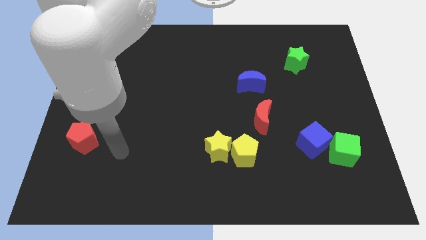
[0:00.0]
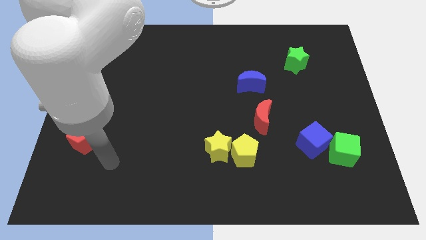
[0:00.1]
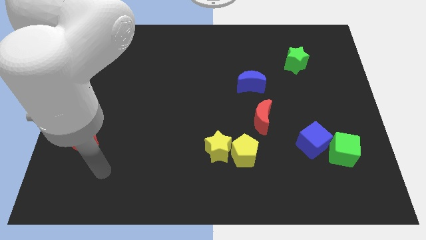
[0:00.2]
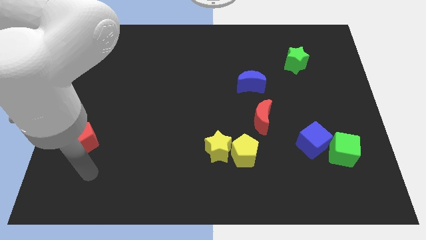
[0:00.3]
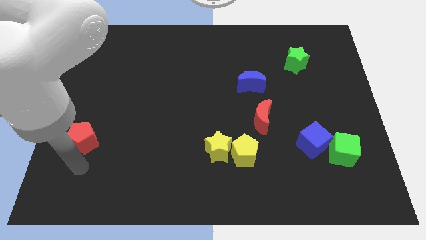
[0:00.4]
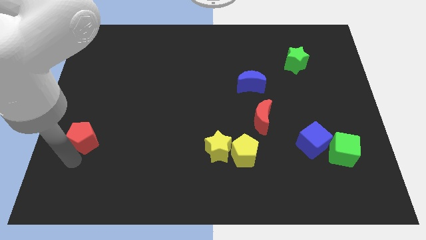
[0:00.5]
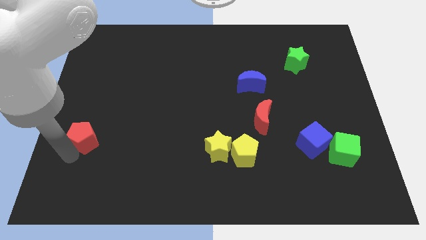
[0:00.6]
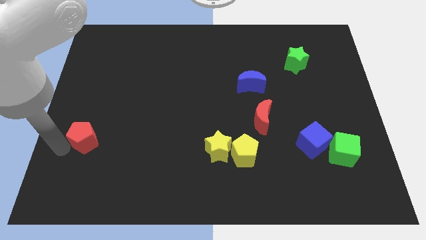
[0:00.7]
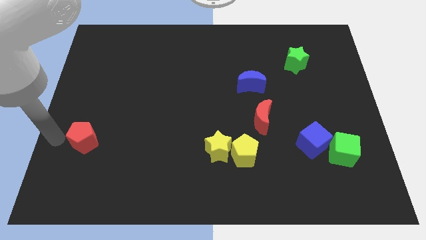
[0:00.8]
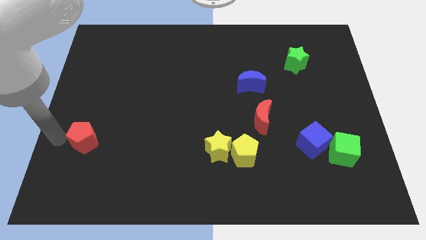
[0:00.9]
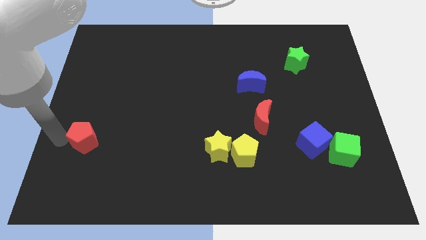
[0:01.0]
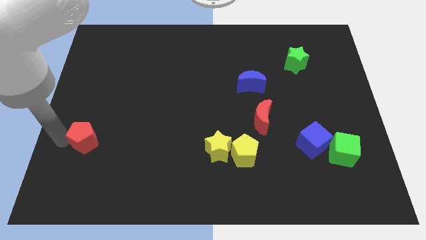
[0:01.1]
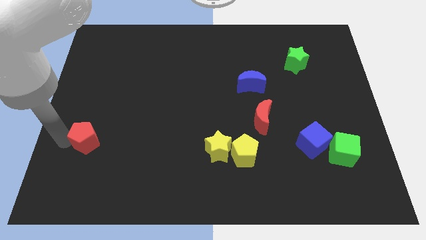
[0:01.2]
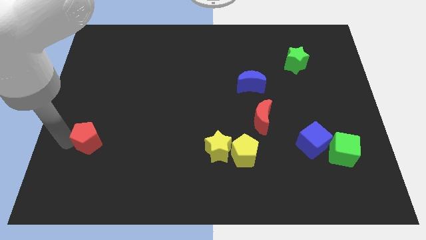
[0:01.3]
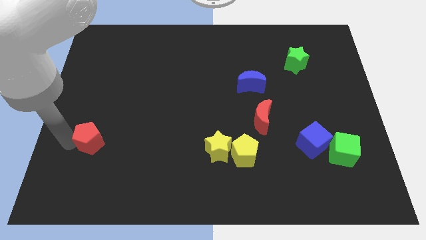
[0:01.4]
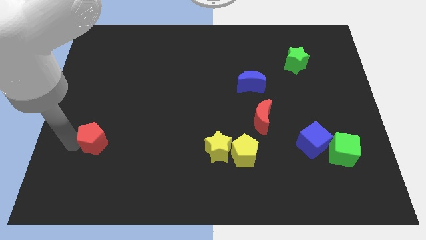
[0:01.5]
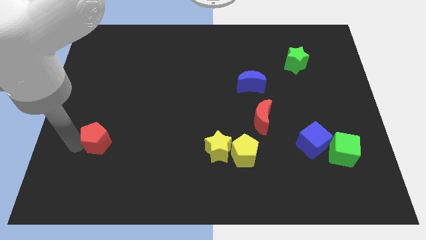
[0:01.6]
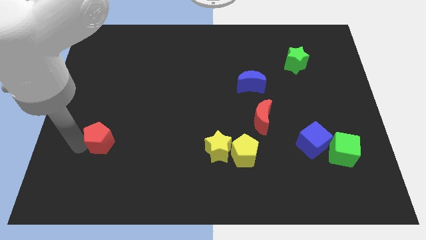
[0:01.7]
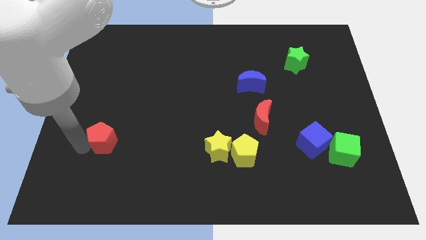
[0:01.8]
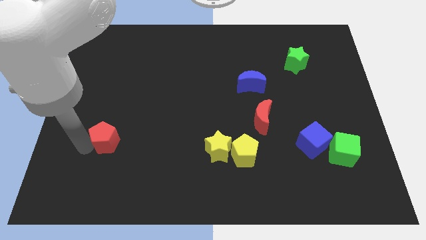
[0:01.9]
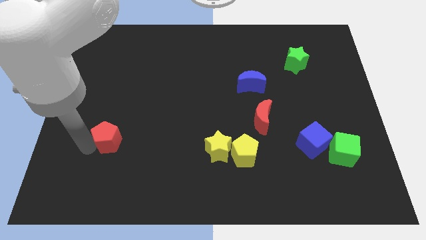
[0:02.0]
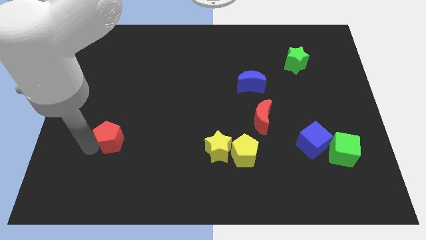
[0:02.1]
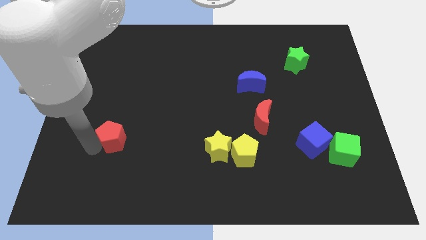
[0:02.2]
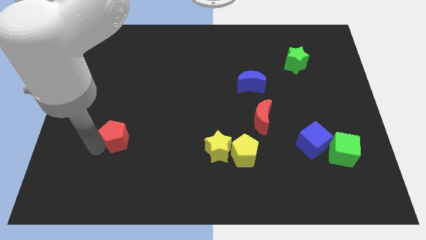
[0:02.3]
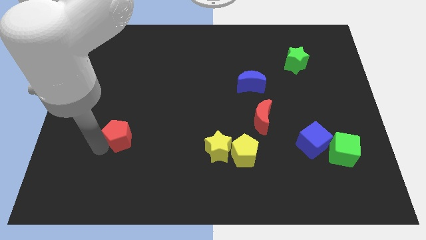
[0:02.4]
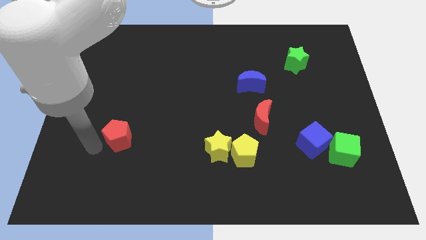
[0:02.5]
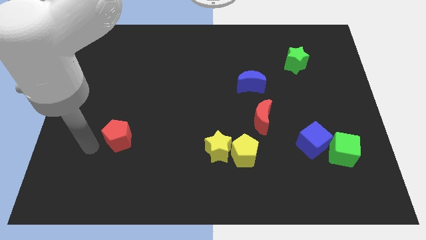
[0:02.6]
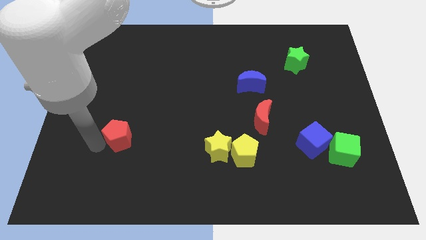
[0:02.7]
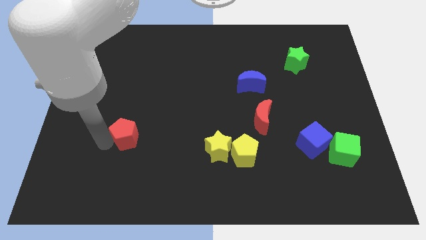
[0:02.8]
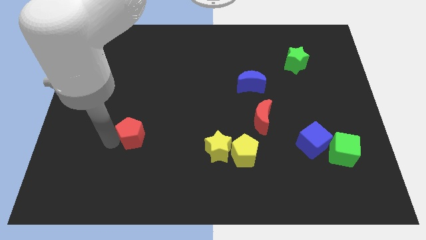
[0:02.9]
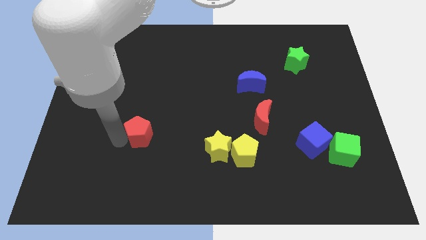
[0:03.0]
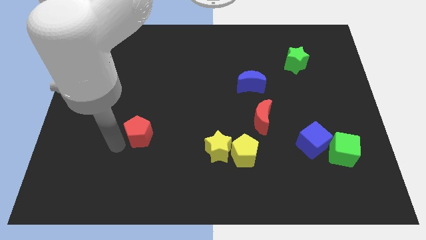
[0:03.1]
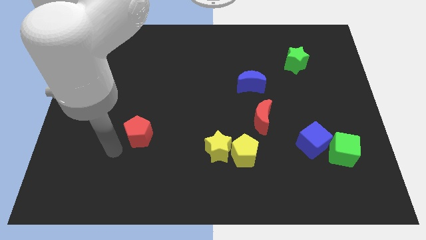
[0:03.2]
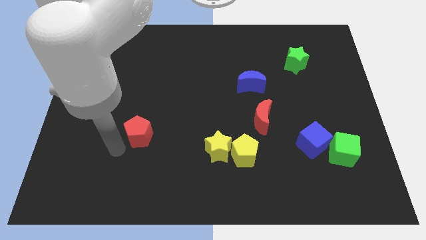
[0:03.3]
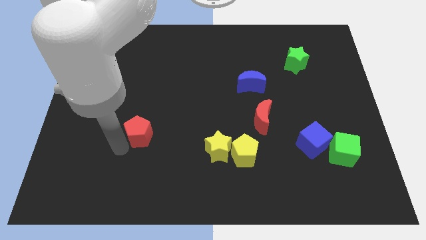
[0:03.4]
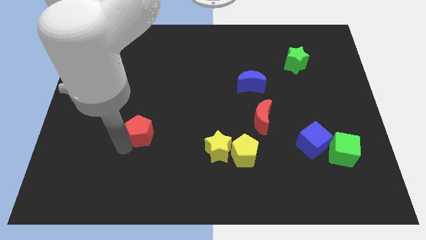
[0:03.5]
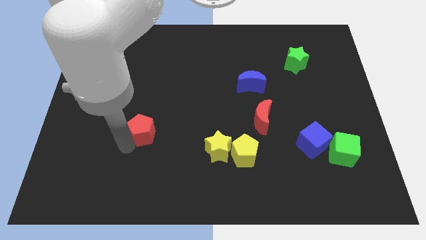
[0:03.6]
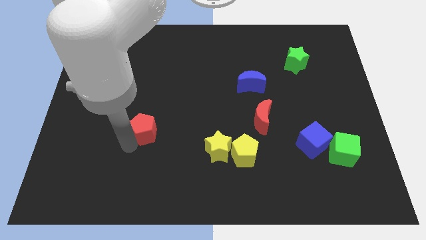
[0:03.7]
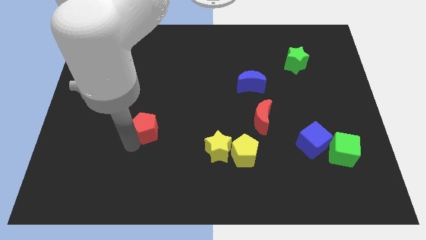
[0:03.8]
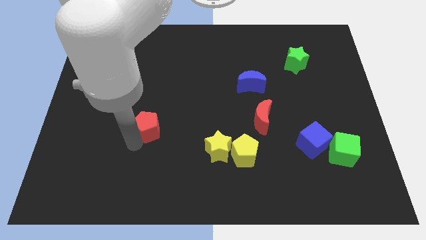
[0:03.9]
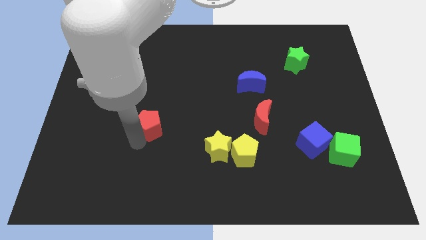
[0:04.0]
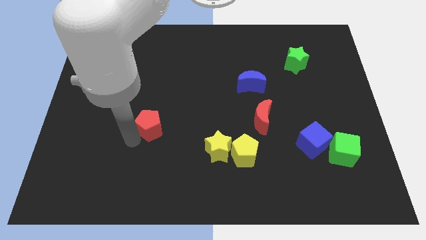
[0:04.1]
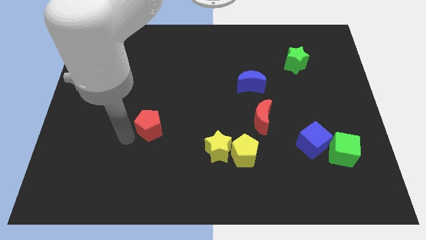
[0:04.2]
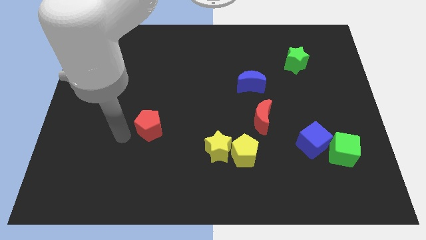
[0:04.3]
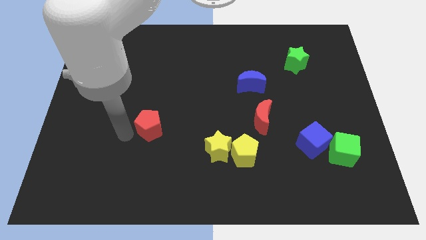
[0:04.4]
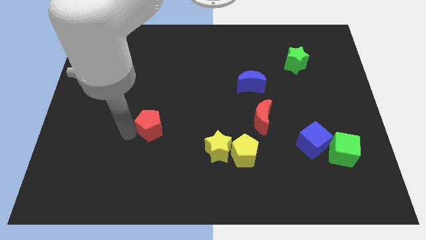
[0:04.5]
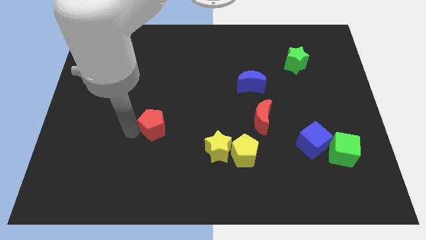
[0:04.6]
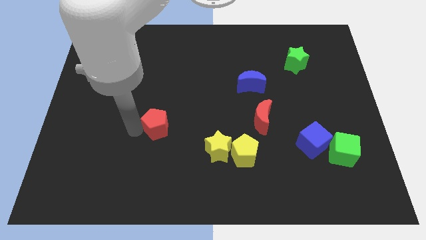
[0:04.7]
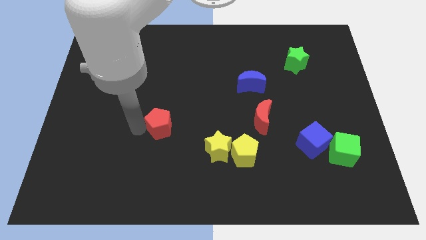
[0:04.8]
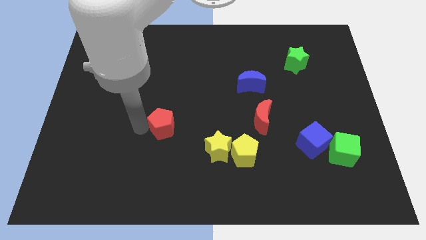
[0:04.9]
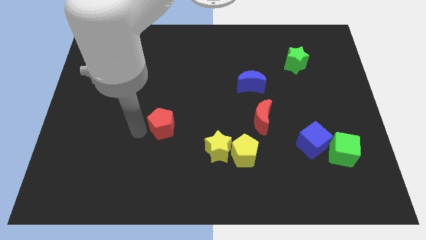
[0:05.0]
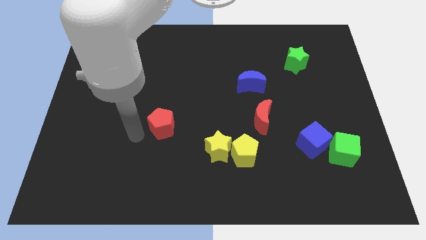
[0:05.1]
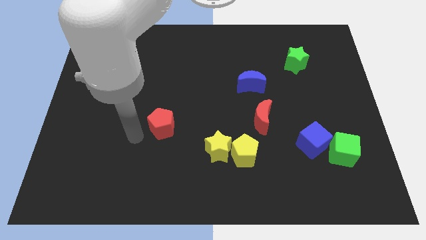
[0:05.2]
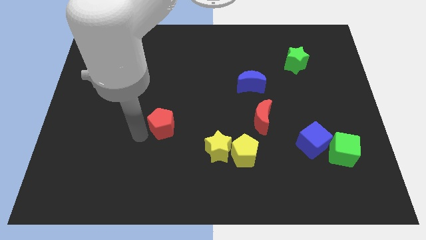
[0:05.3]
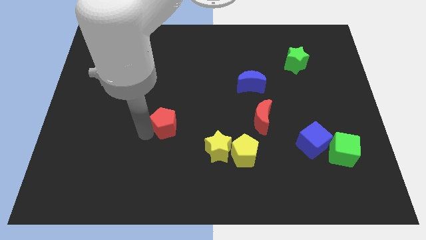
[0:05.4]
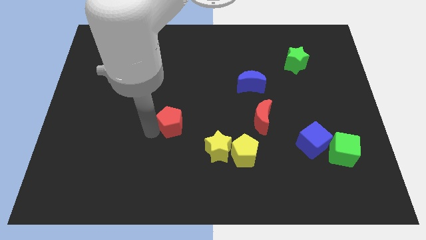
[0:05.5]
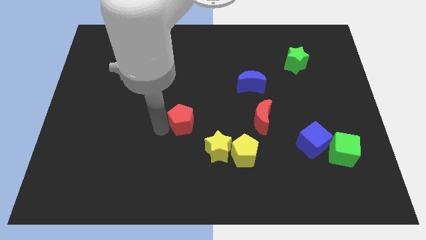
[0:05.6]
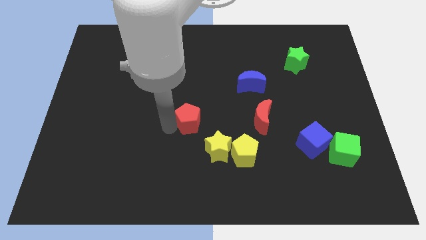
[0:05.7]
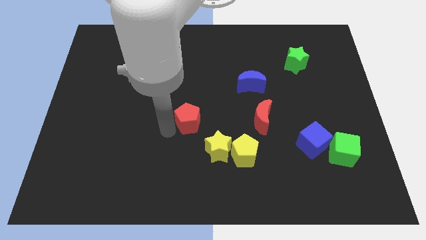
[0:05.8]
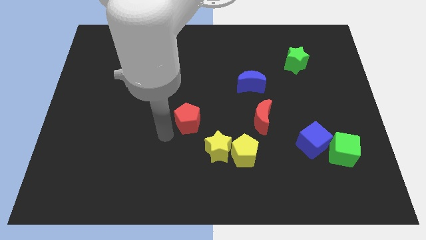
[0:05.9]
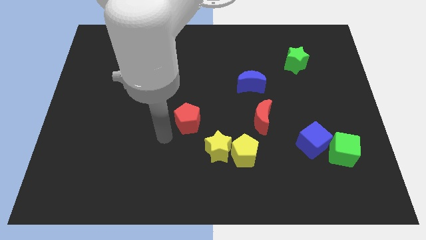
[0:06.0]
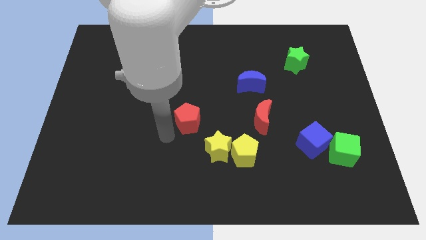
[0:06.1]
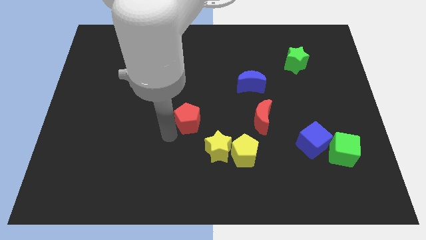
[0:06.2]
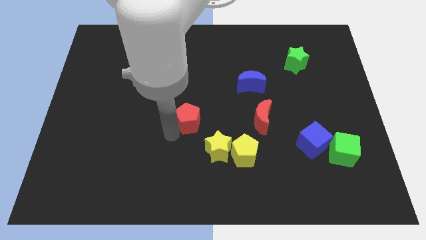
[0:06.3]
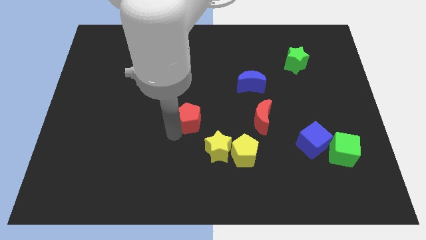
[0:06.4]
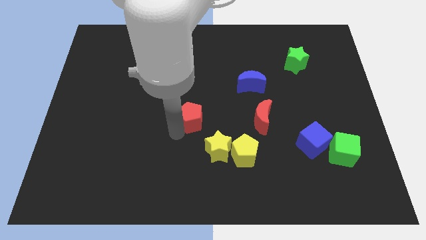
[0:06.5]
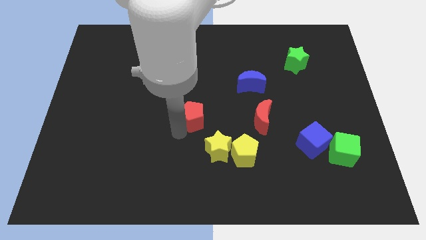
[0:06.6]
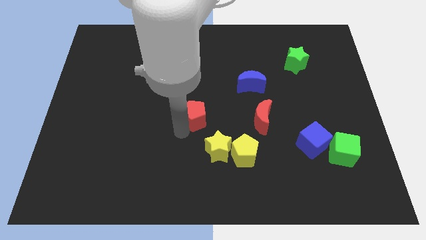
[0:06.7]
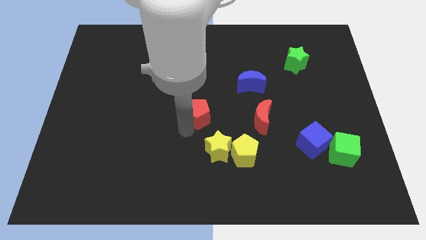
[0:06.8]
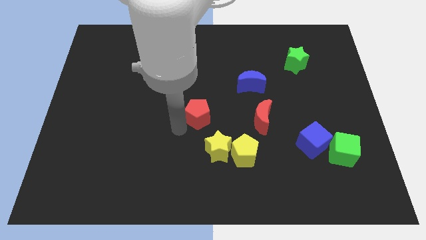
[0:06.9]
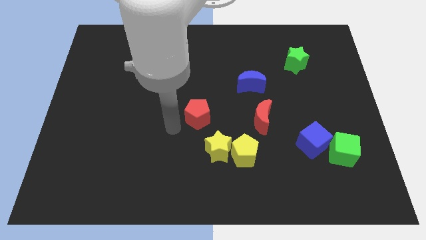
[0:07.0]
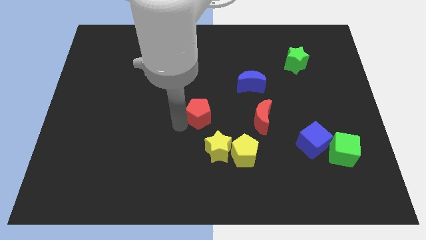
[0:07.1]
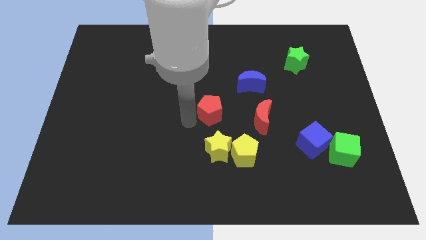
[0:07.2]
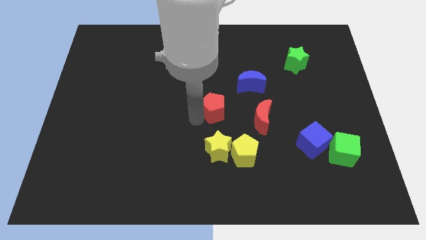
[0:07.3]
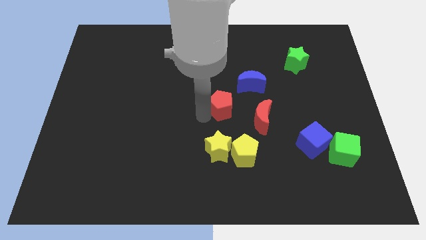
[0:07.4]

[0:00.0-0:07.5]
push the red pentagon to the top left of the red moon
